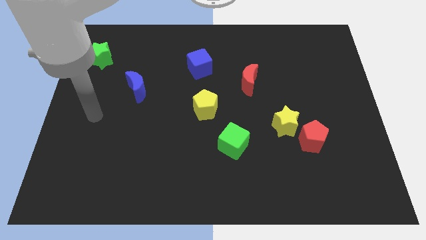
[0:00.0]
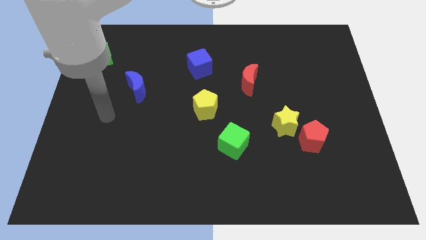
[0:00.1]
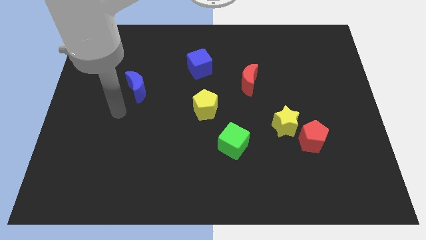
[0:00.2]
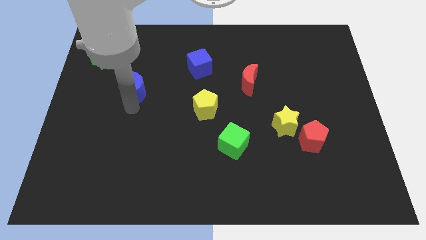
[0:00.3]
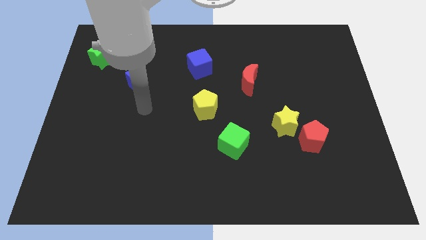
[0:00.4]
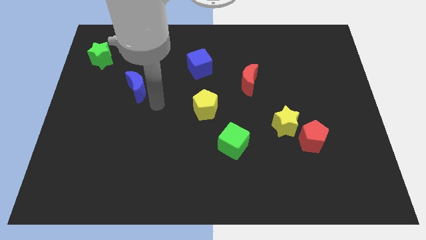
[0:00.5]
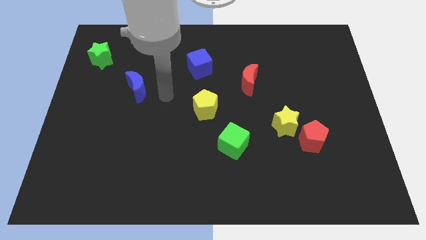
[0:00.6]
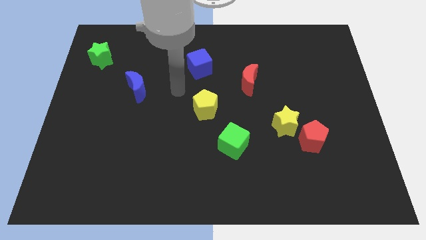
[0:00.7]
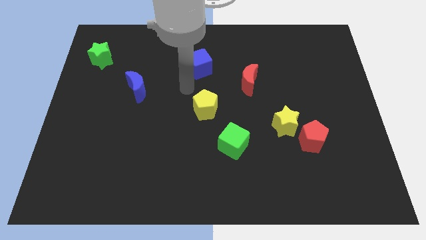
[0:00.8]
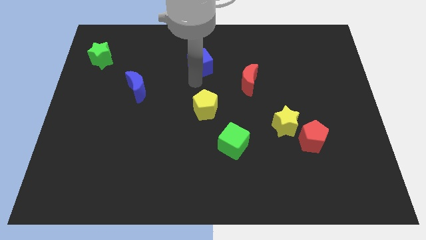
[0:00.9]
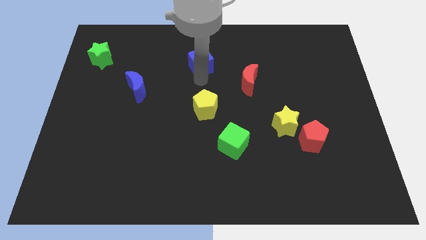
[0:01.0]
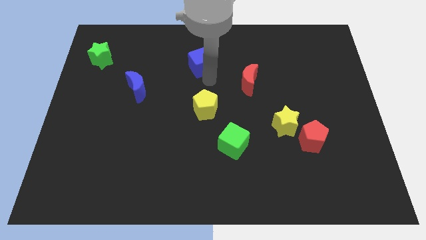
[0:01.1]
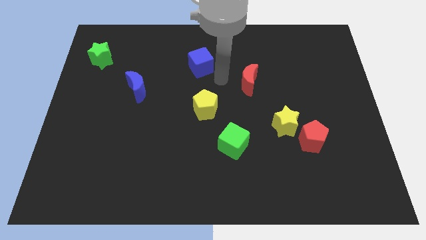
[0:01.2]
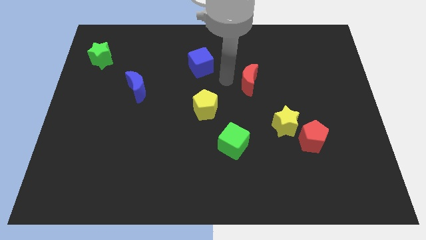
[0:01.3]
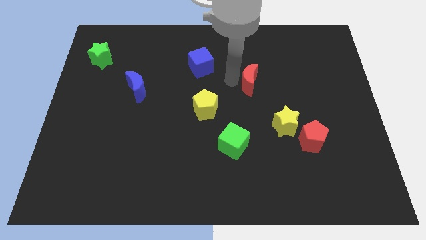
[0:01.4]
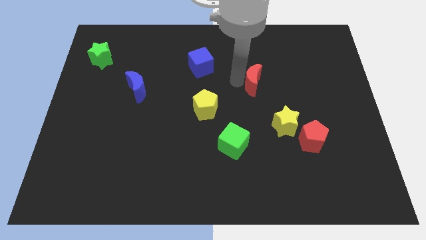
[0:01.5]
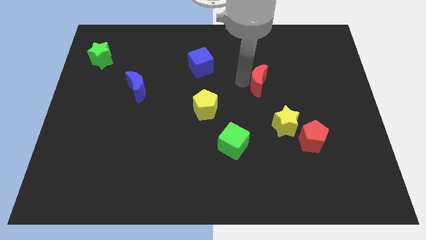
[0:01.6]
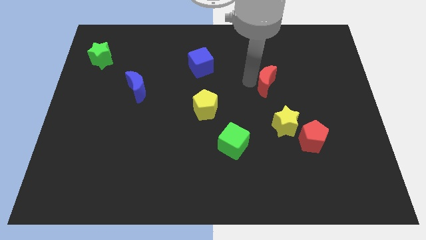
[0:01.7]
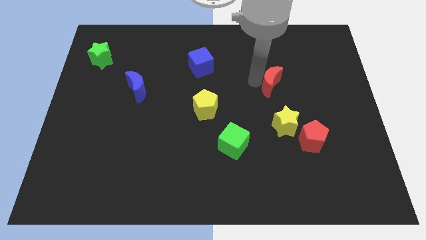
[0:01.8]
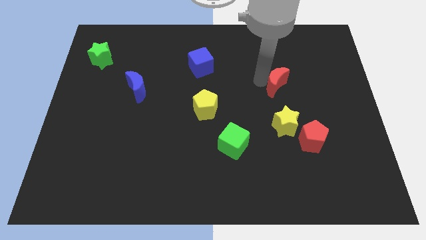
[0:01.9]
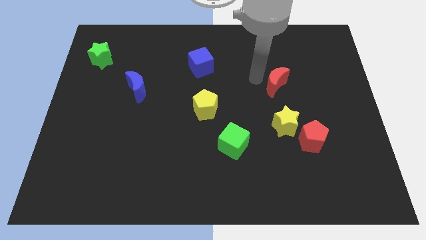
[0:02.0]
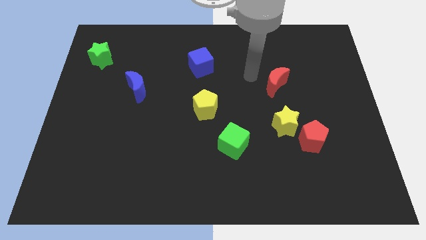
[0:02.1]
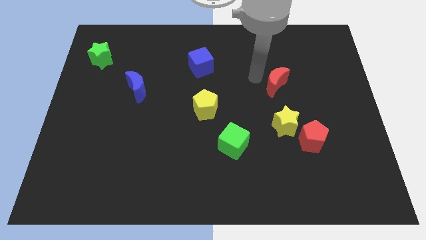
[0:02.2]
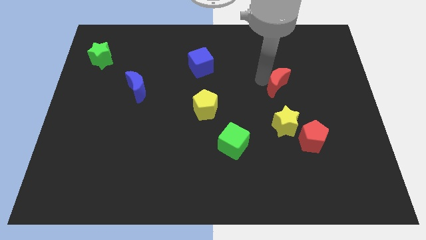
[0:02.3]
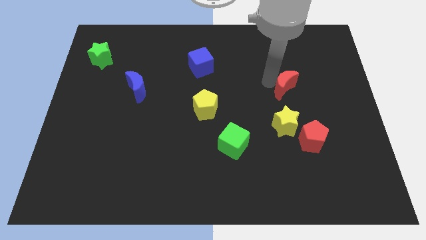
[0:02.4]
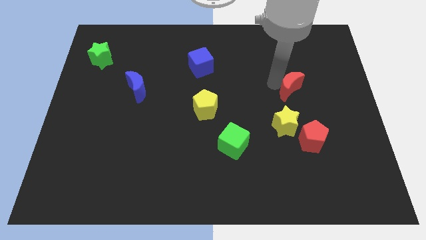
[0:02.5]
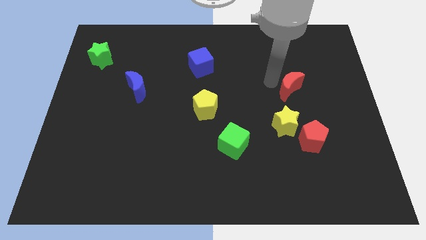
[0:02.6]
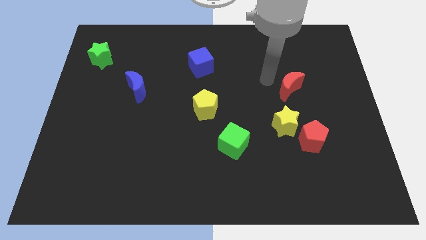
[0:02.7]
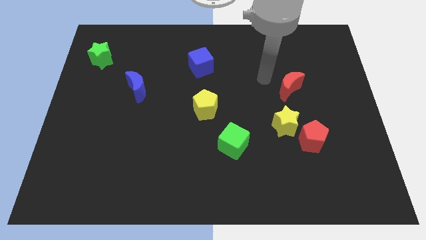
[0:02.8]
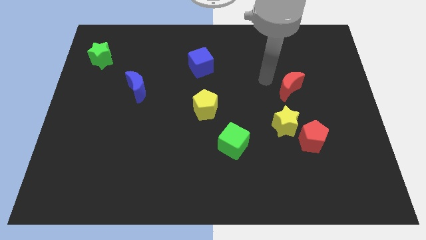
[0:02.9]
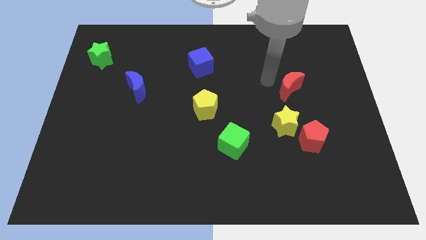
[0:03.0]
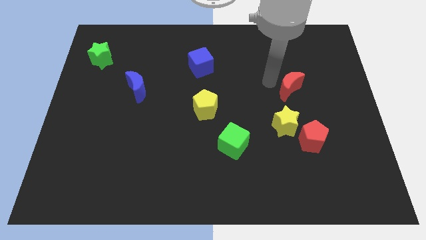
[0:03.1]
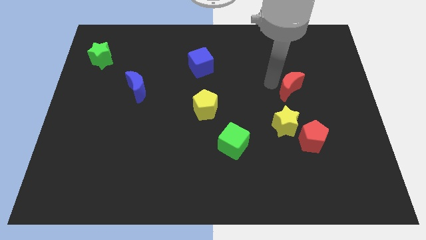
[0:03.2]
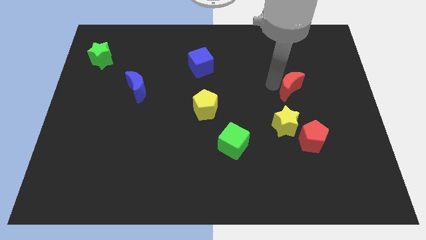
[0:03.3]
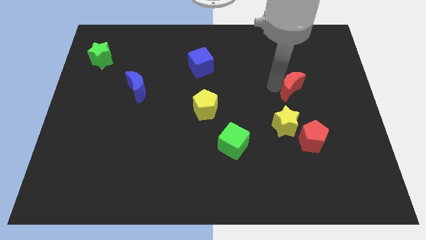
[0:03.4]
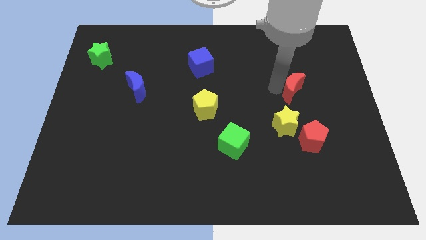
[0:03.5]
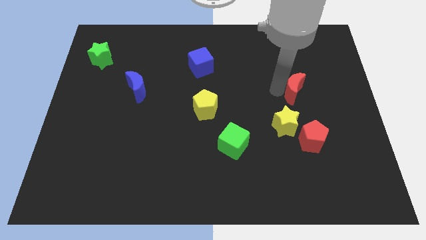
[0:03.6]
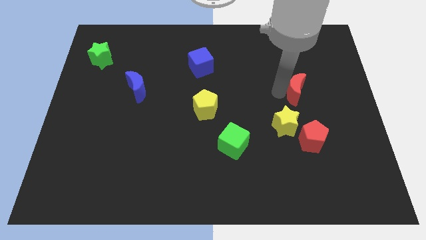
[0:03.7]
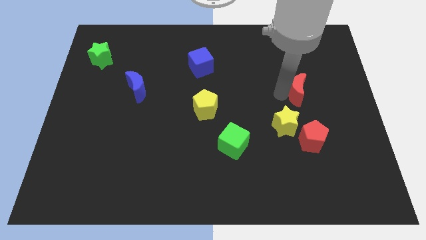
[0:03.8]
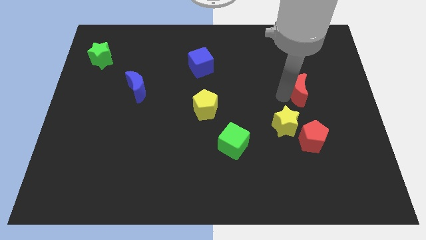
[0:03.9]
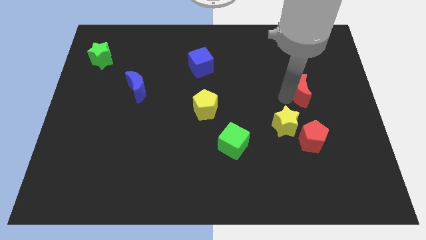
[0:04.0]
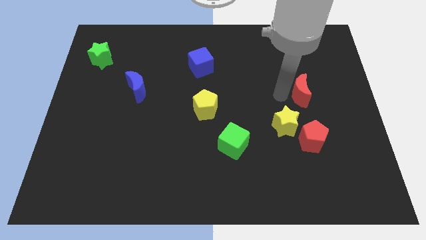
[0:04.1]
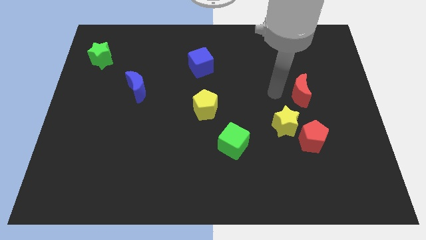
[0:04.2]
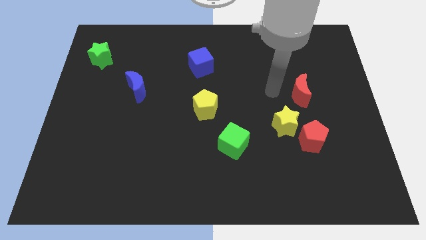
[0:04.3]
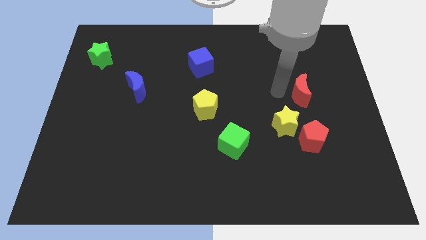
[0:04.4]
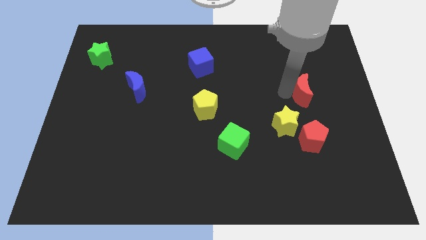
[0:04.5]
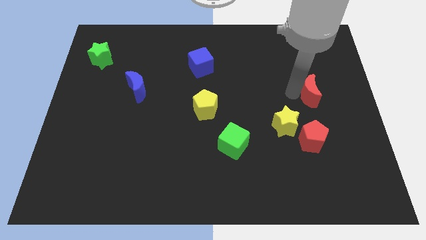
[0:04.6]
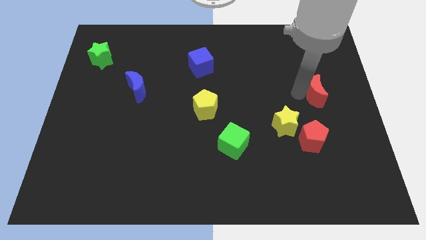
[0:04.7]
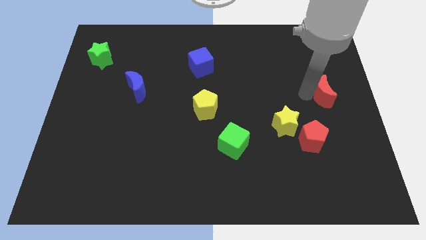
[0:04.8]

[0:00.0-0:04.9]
slide the red moon to the center right

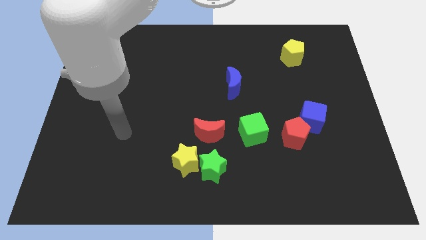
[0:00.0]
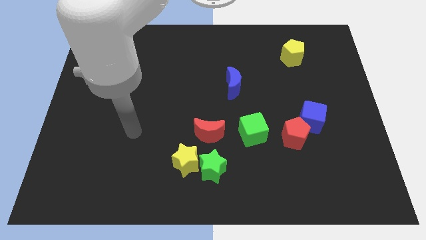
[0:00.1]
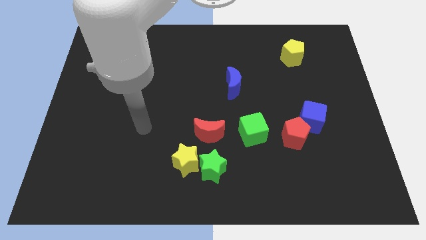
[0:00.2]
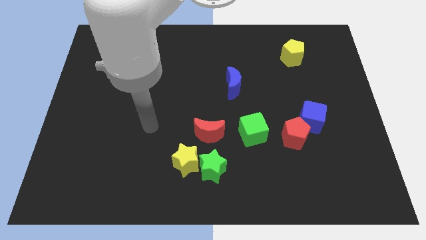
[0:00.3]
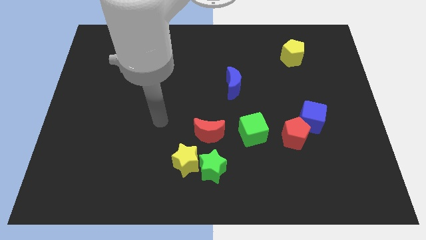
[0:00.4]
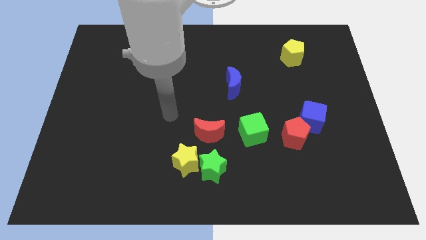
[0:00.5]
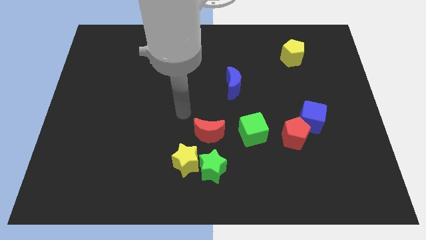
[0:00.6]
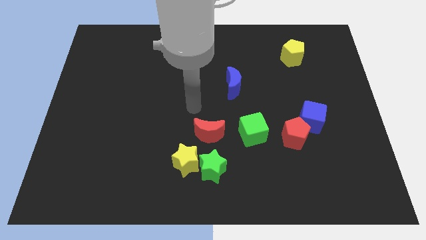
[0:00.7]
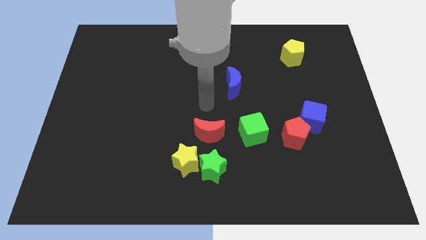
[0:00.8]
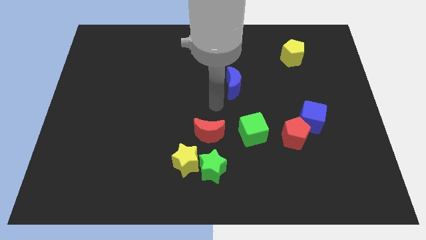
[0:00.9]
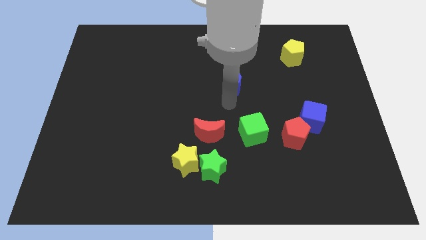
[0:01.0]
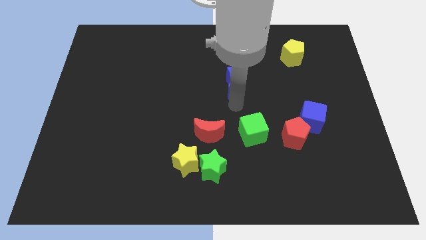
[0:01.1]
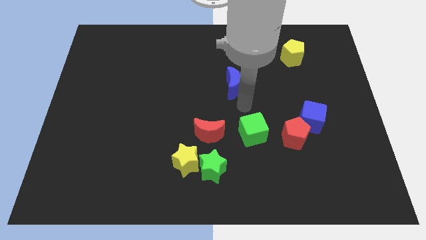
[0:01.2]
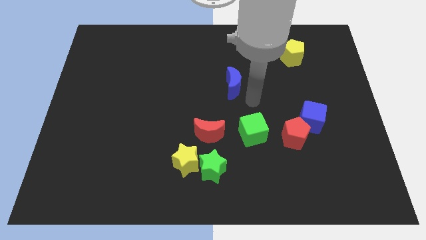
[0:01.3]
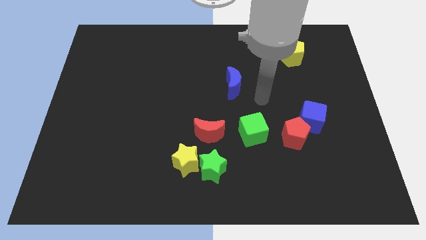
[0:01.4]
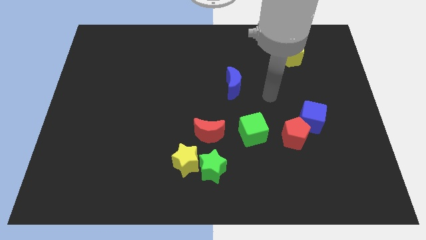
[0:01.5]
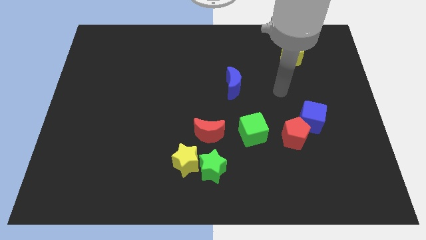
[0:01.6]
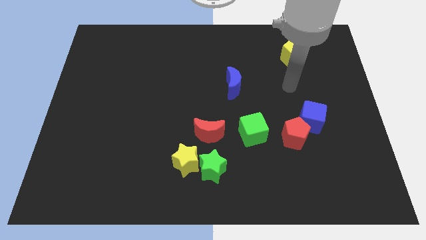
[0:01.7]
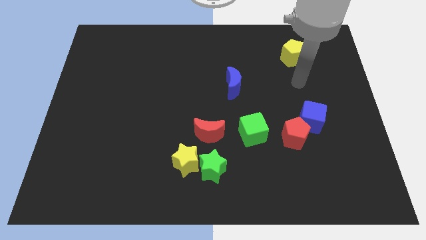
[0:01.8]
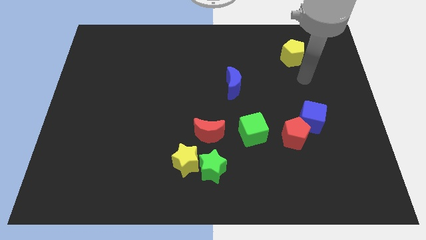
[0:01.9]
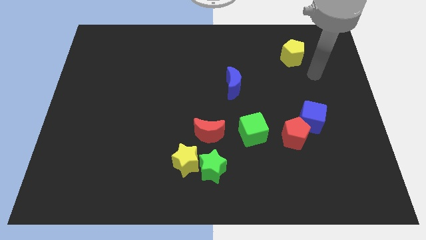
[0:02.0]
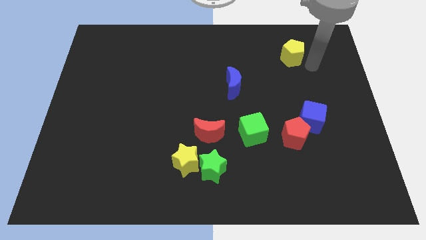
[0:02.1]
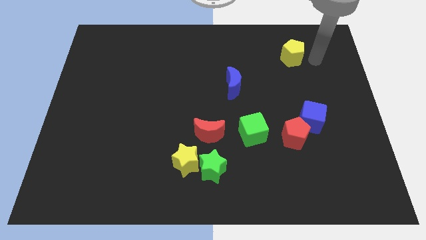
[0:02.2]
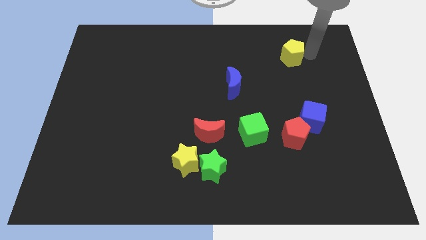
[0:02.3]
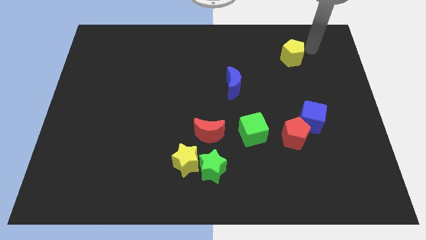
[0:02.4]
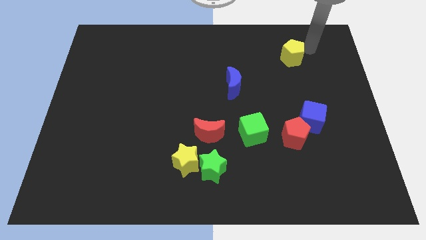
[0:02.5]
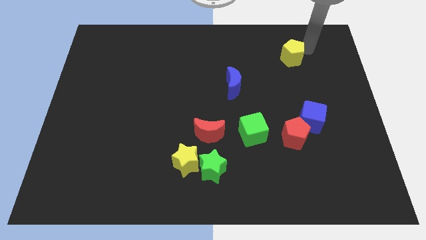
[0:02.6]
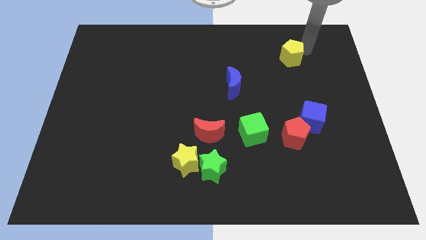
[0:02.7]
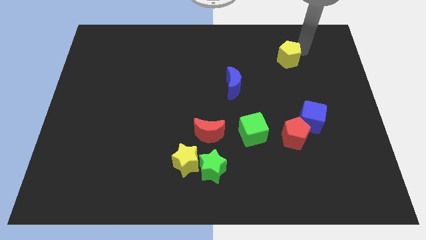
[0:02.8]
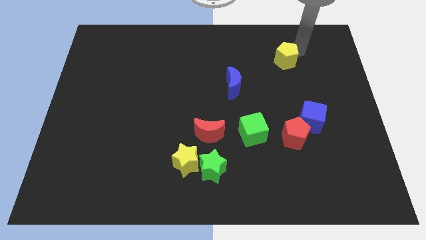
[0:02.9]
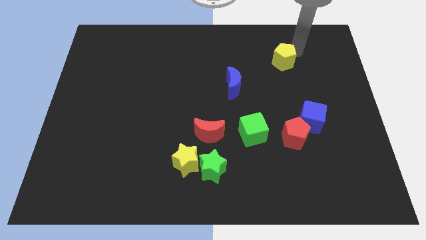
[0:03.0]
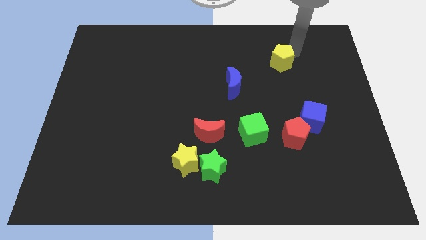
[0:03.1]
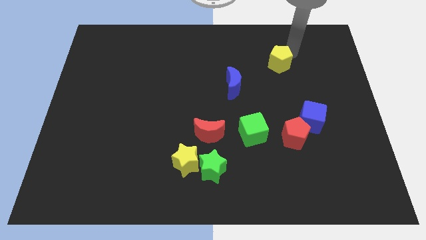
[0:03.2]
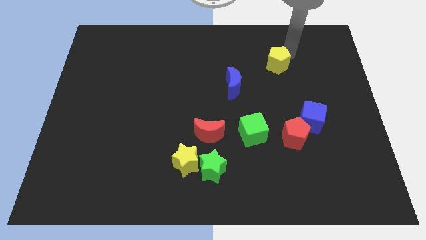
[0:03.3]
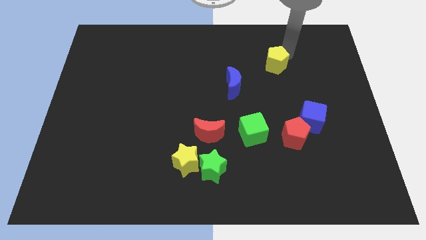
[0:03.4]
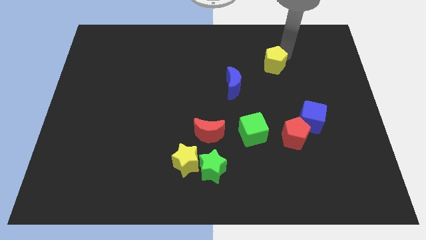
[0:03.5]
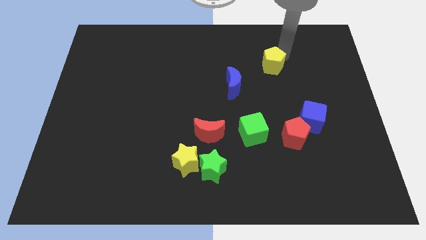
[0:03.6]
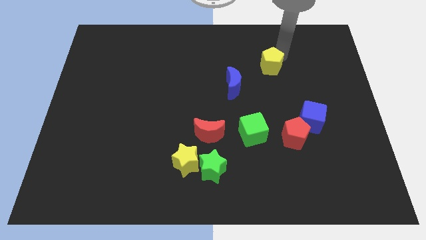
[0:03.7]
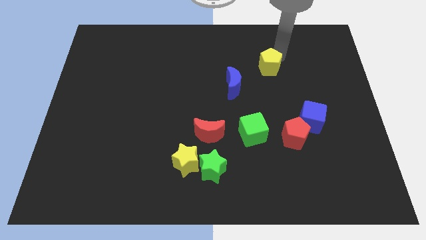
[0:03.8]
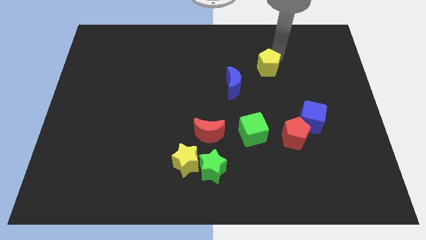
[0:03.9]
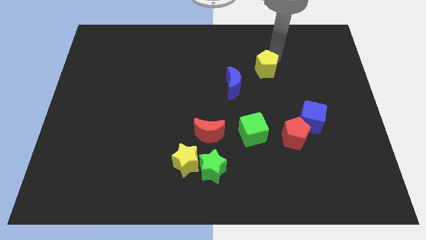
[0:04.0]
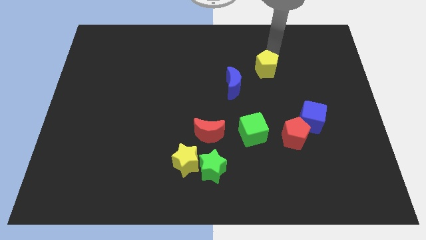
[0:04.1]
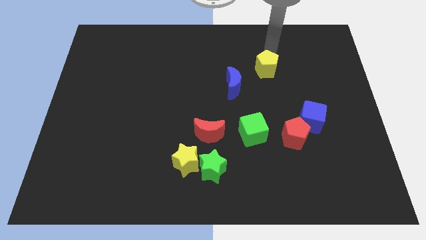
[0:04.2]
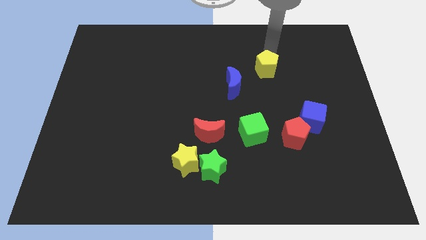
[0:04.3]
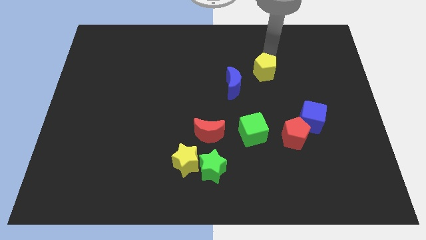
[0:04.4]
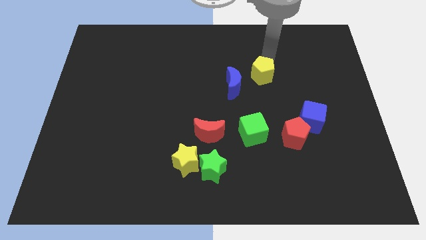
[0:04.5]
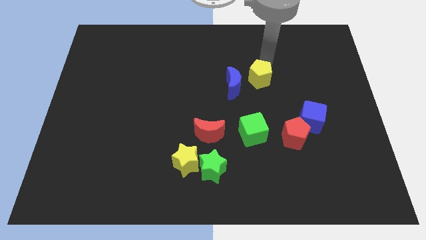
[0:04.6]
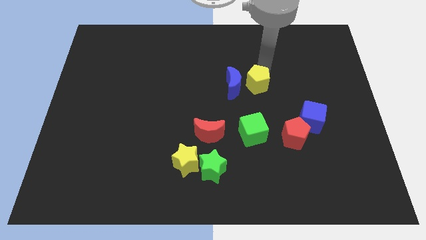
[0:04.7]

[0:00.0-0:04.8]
put the yellow pentagon to the center of the board
